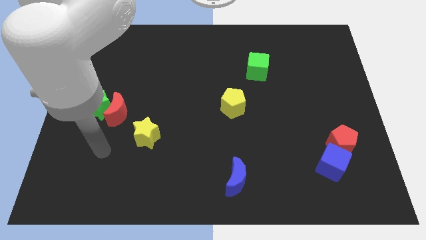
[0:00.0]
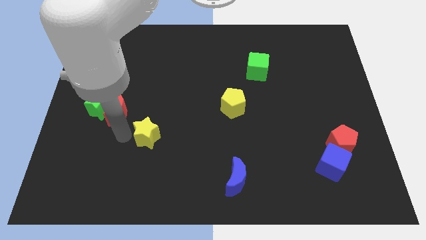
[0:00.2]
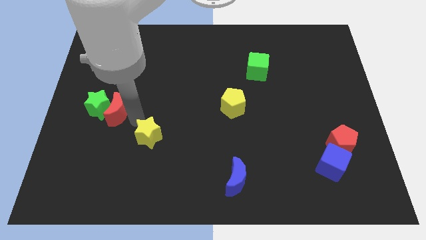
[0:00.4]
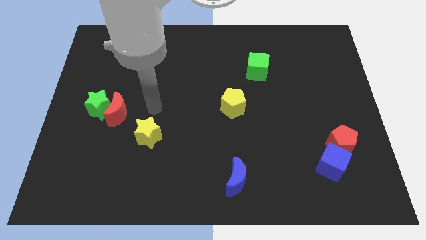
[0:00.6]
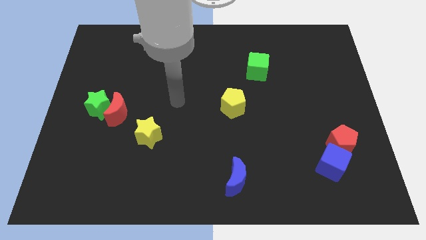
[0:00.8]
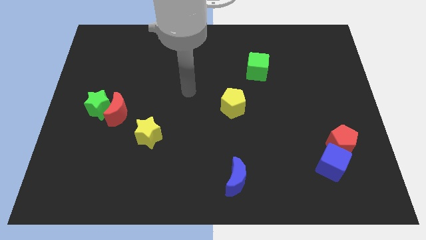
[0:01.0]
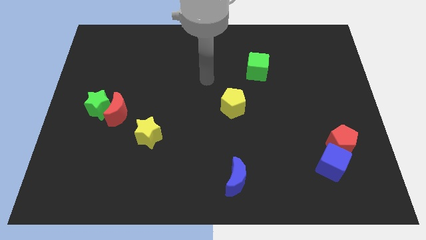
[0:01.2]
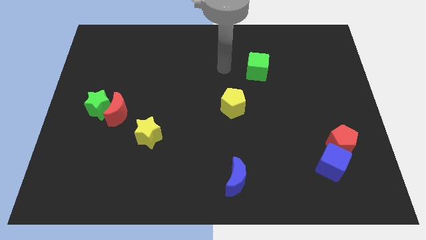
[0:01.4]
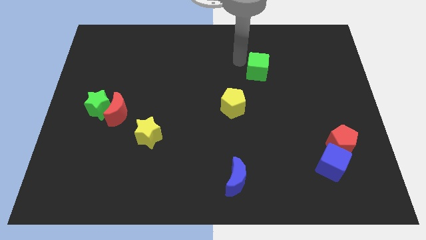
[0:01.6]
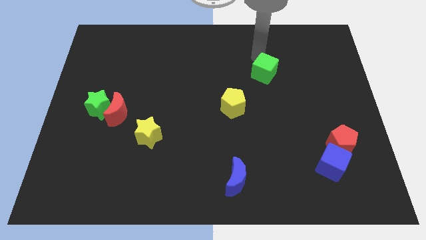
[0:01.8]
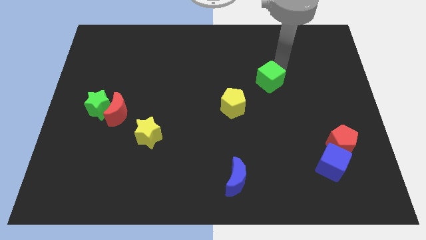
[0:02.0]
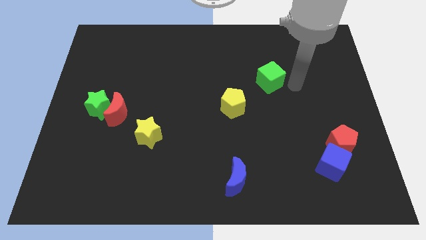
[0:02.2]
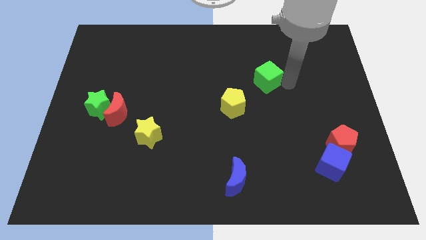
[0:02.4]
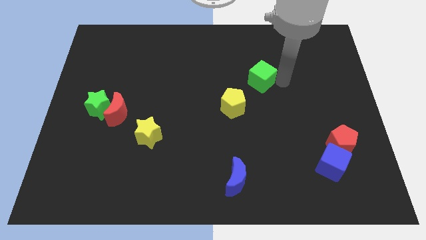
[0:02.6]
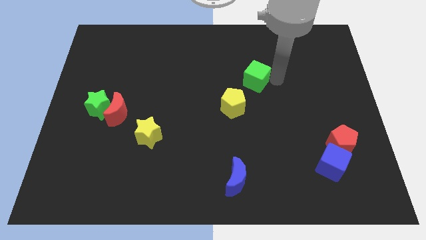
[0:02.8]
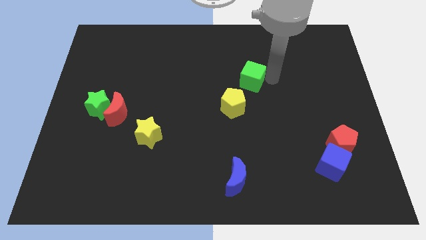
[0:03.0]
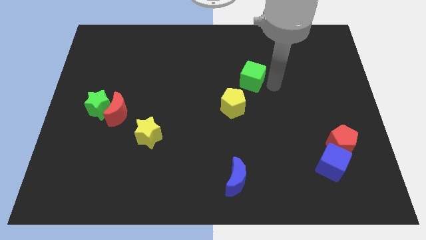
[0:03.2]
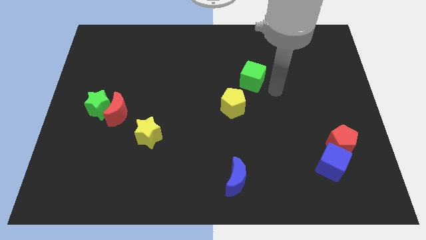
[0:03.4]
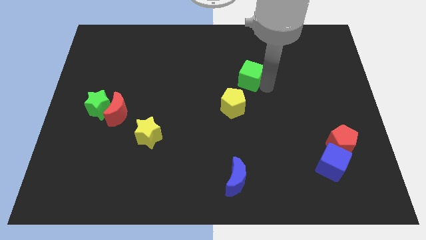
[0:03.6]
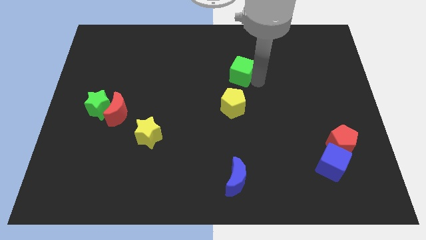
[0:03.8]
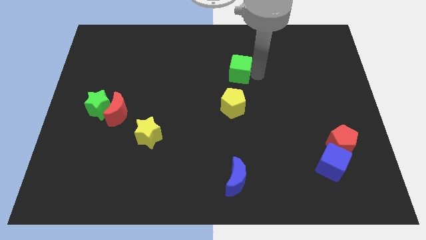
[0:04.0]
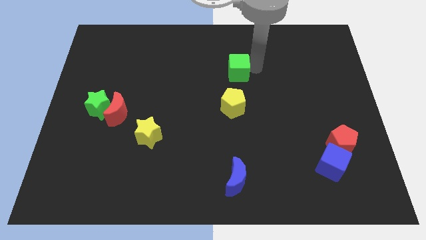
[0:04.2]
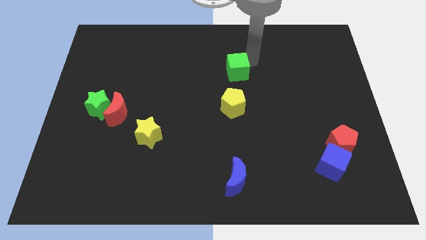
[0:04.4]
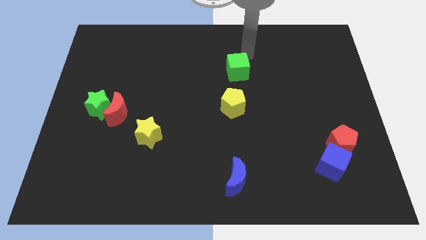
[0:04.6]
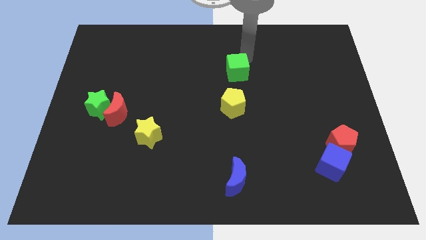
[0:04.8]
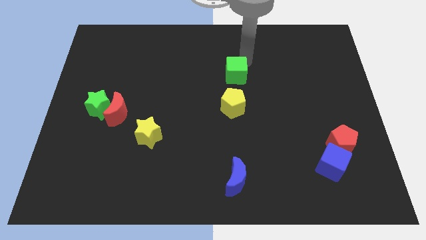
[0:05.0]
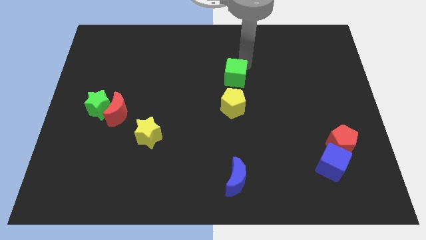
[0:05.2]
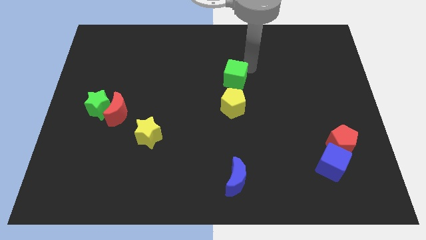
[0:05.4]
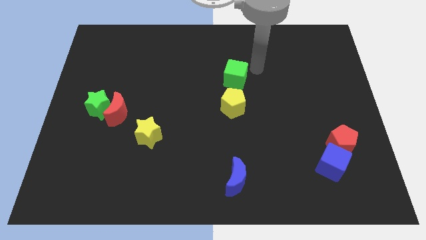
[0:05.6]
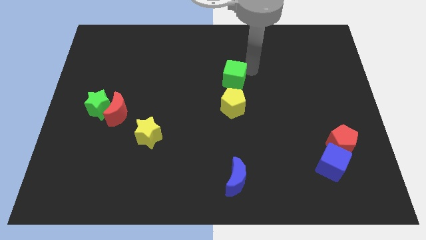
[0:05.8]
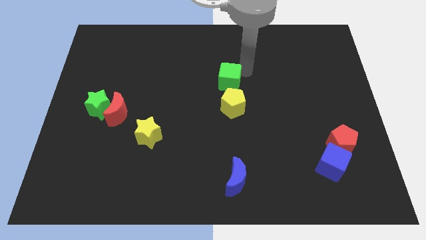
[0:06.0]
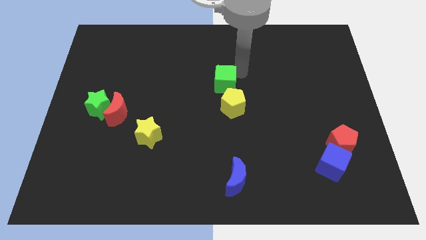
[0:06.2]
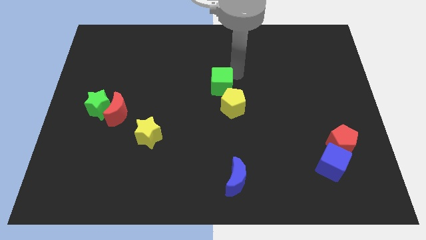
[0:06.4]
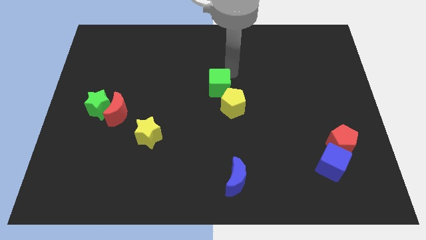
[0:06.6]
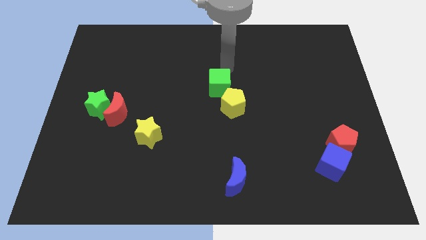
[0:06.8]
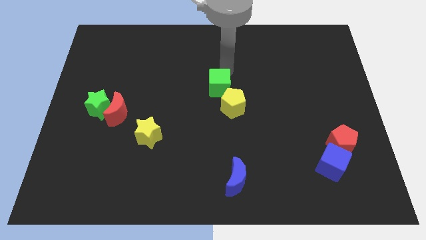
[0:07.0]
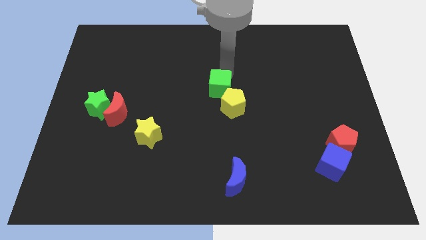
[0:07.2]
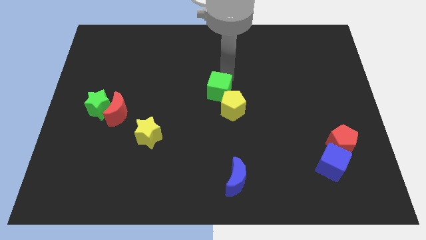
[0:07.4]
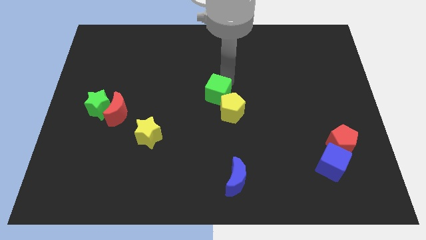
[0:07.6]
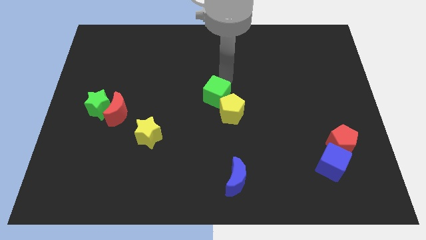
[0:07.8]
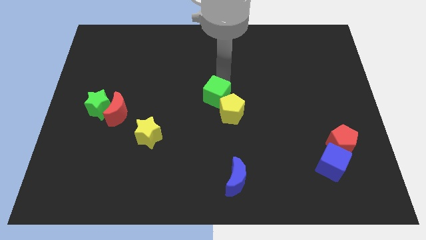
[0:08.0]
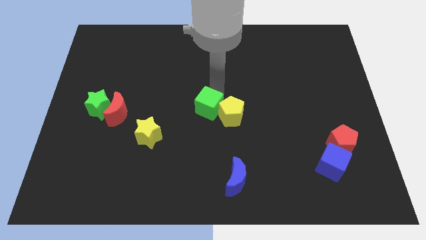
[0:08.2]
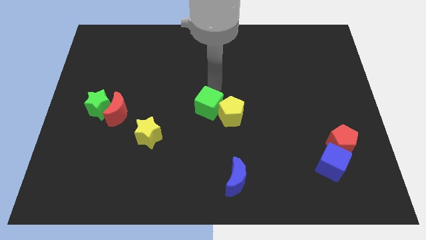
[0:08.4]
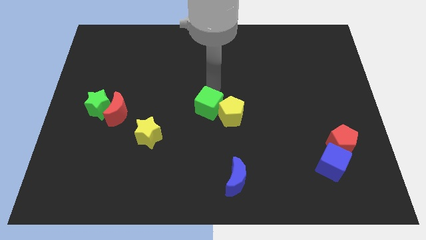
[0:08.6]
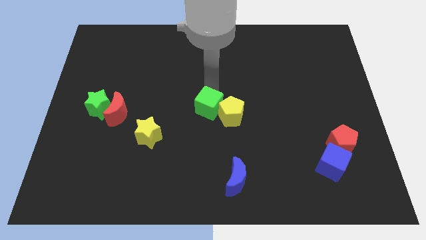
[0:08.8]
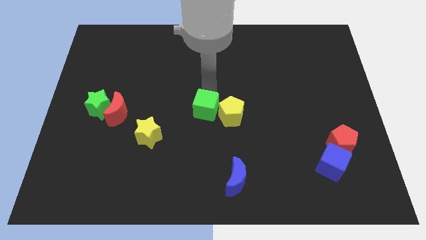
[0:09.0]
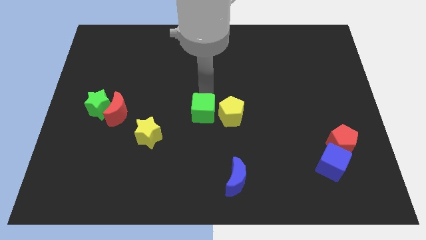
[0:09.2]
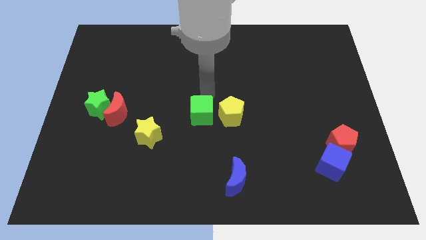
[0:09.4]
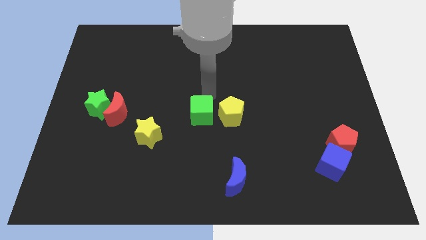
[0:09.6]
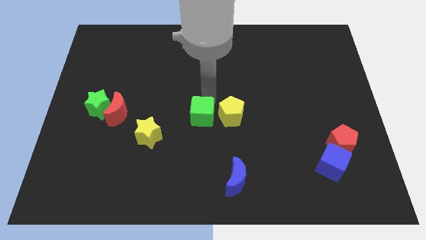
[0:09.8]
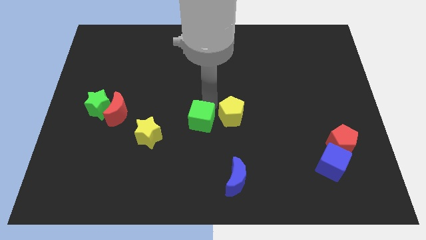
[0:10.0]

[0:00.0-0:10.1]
push the green cube just right of the yellow star

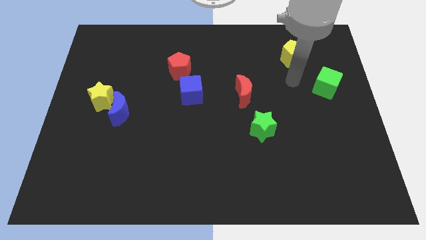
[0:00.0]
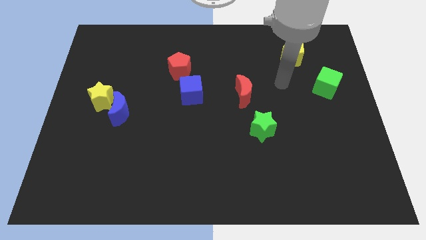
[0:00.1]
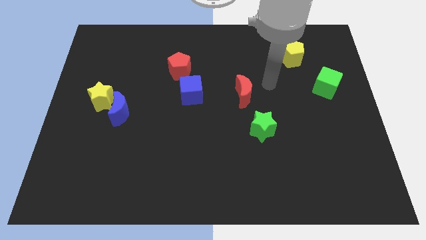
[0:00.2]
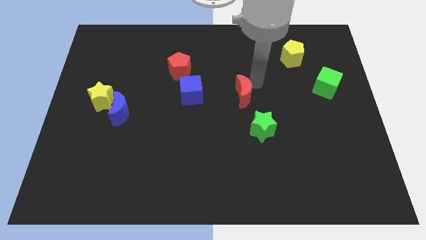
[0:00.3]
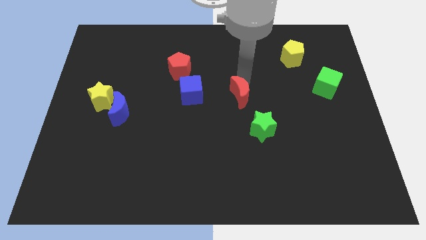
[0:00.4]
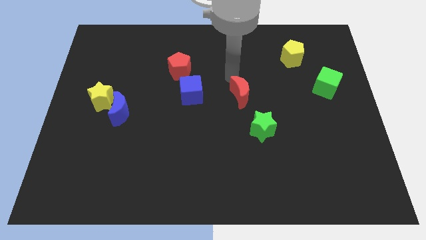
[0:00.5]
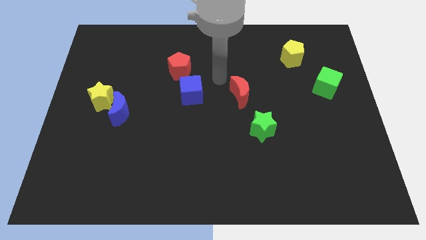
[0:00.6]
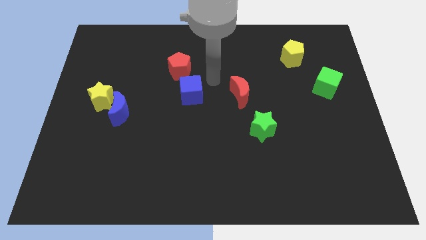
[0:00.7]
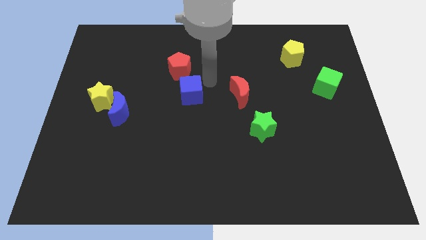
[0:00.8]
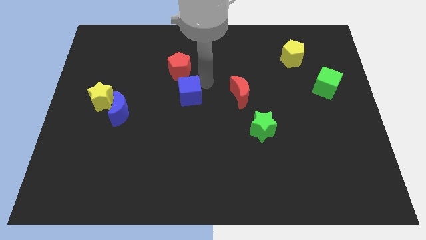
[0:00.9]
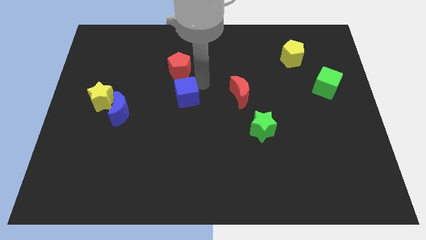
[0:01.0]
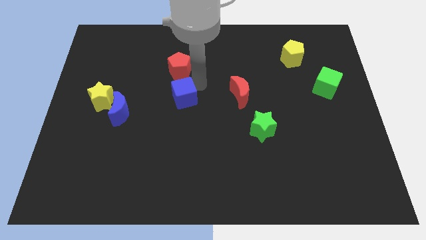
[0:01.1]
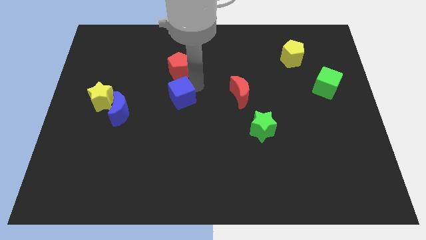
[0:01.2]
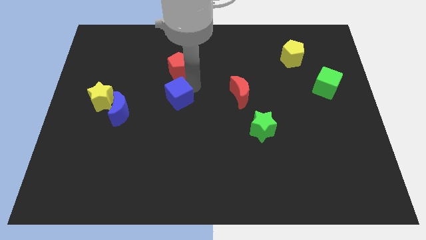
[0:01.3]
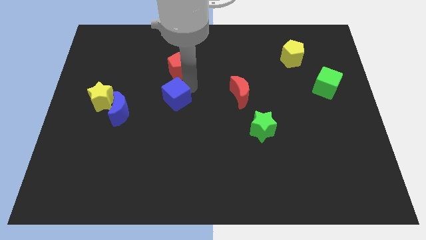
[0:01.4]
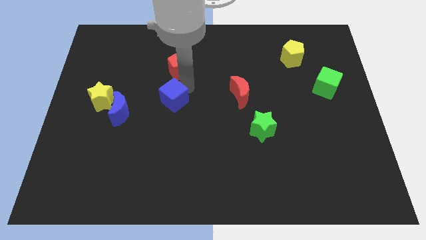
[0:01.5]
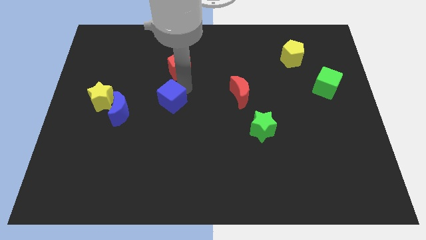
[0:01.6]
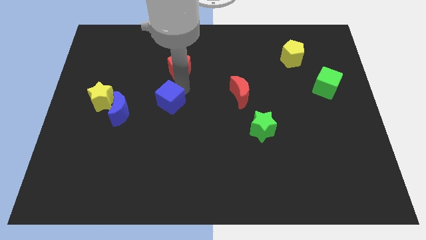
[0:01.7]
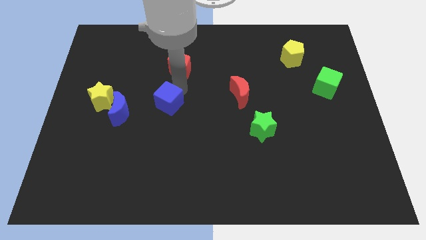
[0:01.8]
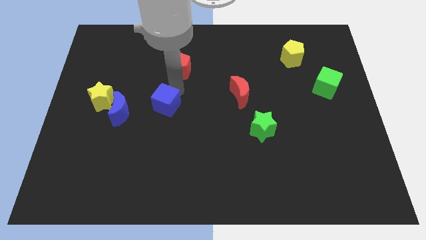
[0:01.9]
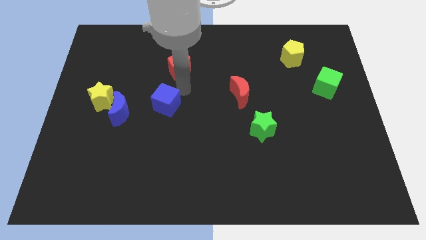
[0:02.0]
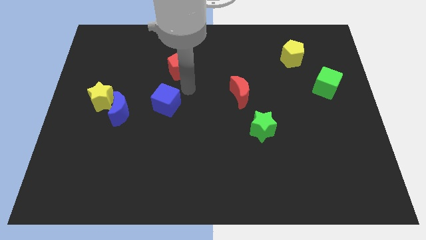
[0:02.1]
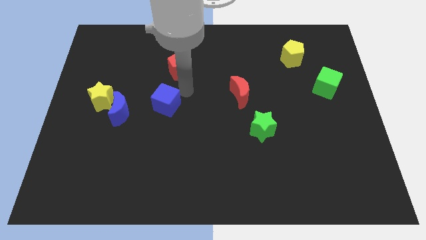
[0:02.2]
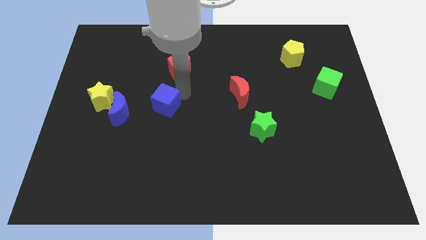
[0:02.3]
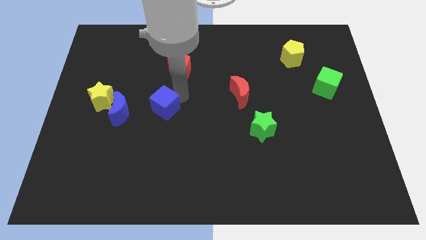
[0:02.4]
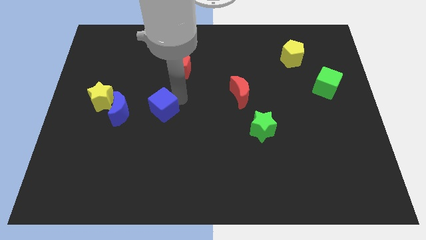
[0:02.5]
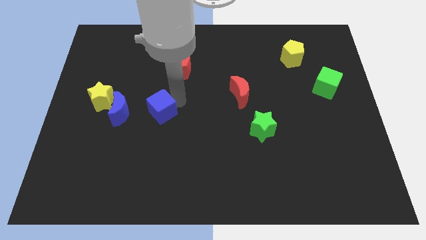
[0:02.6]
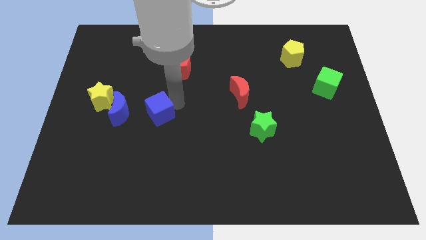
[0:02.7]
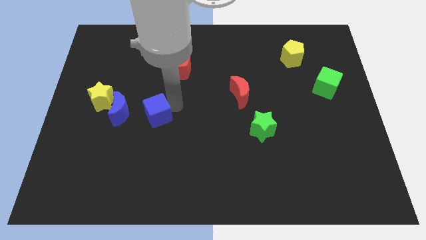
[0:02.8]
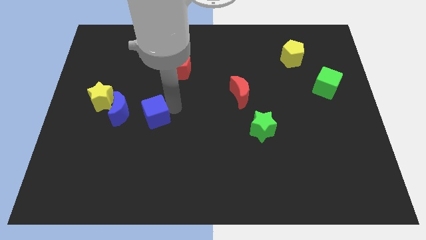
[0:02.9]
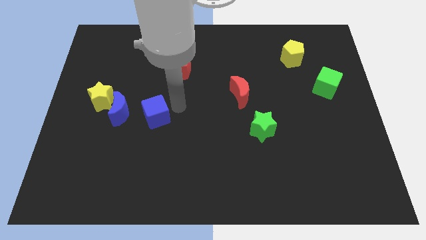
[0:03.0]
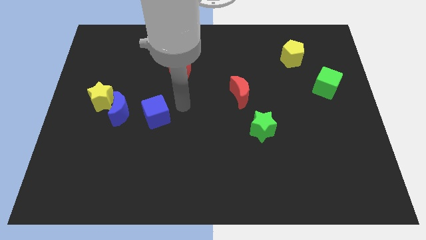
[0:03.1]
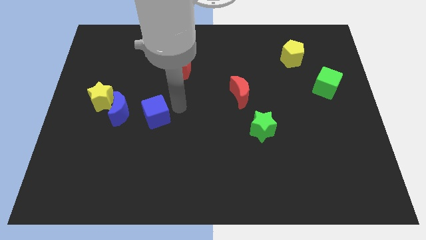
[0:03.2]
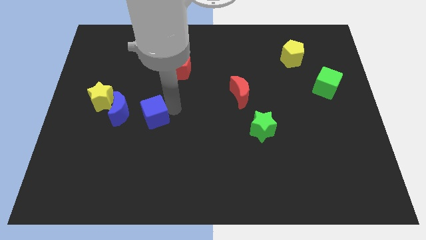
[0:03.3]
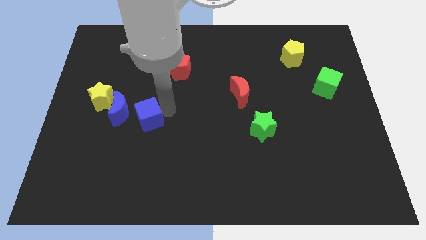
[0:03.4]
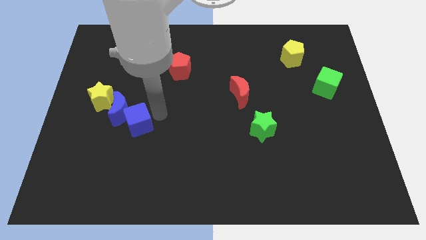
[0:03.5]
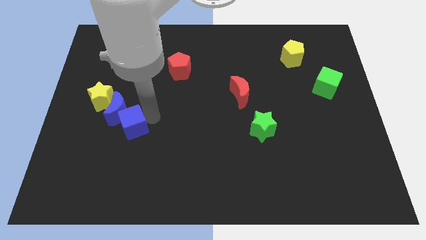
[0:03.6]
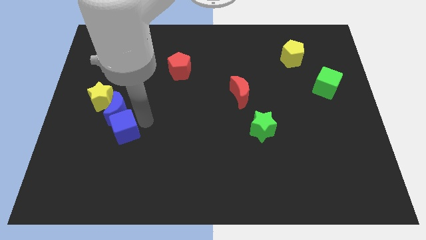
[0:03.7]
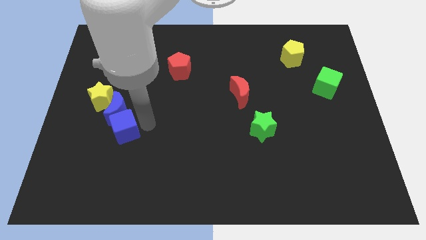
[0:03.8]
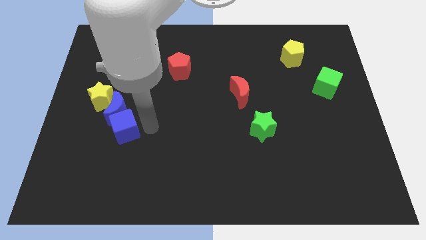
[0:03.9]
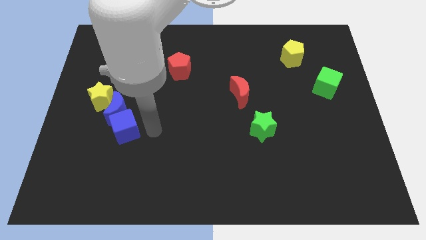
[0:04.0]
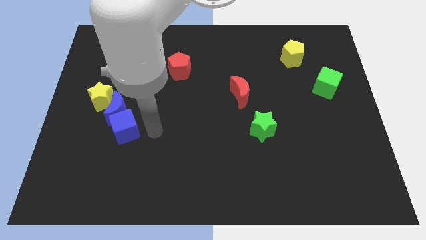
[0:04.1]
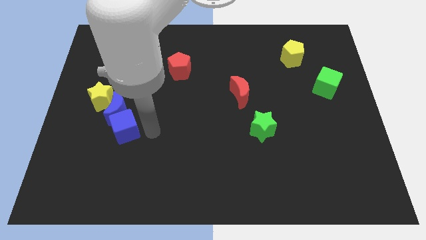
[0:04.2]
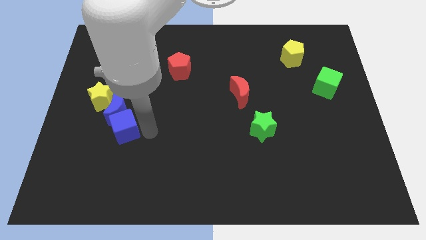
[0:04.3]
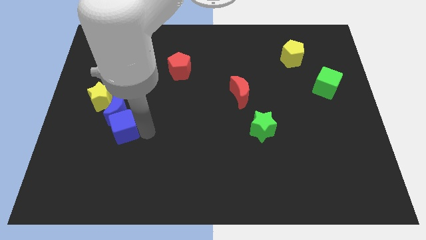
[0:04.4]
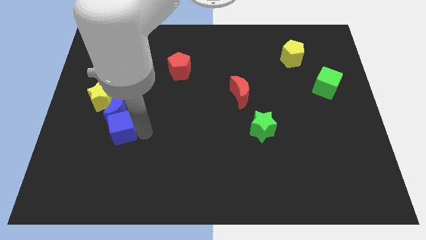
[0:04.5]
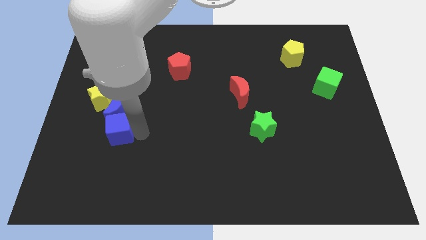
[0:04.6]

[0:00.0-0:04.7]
push the blue cube to the bottom left of the blue moon
